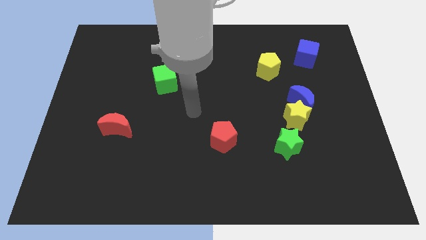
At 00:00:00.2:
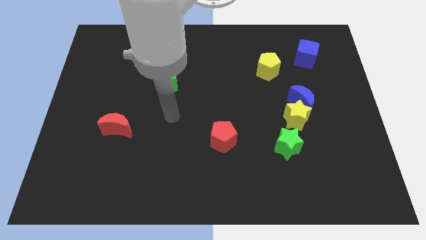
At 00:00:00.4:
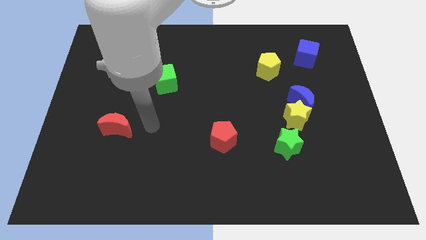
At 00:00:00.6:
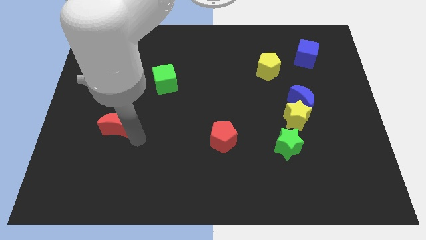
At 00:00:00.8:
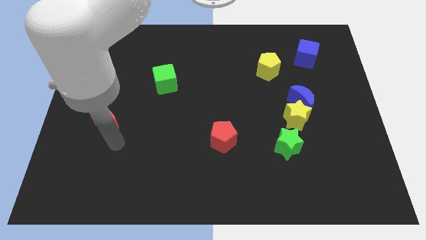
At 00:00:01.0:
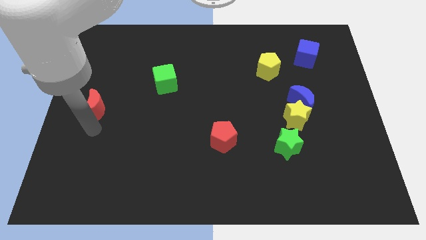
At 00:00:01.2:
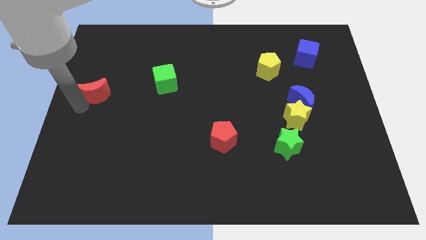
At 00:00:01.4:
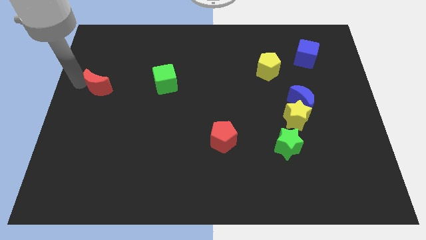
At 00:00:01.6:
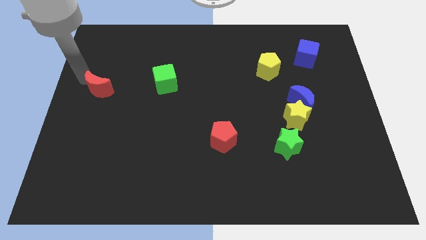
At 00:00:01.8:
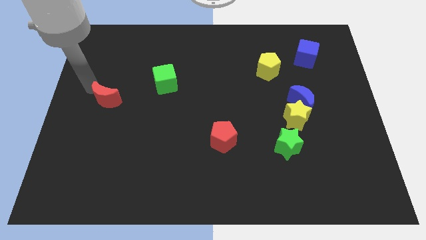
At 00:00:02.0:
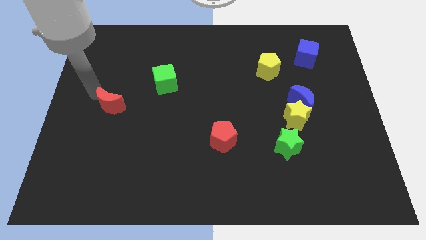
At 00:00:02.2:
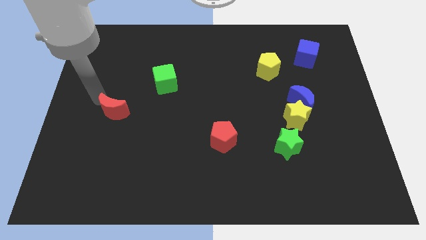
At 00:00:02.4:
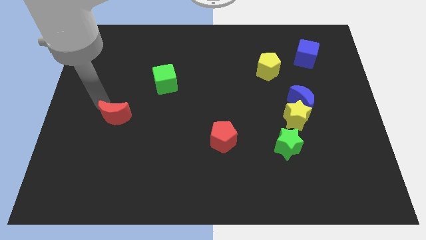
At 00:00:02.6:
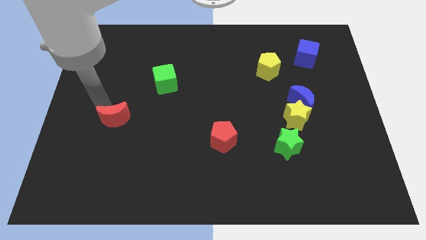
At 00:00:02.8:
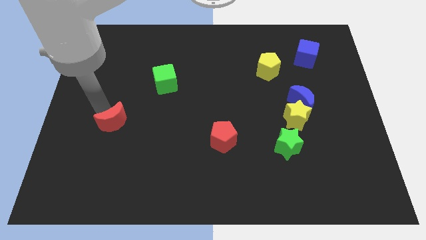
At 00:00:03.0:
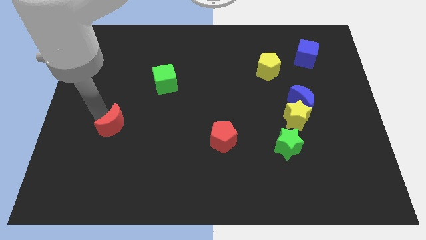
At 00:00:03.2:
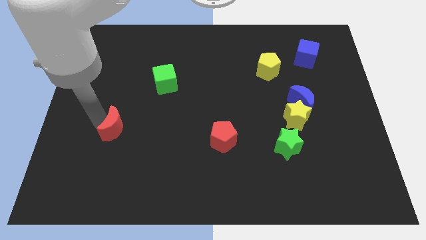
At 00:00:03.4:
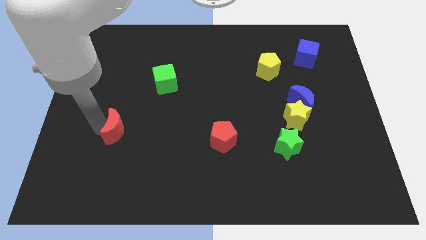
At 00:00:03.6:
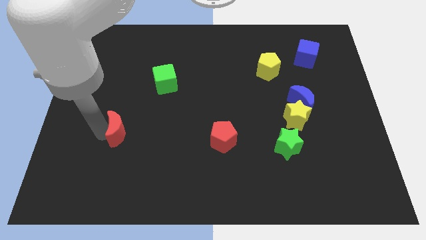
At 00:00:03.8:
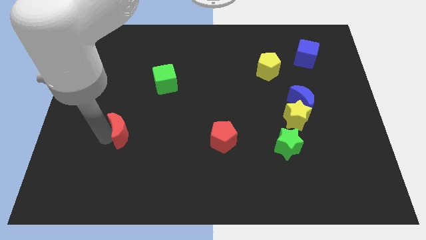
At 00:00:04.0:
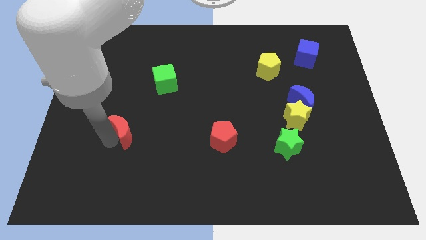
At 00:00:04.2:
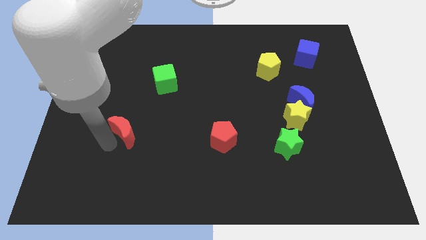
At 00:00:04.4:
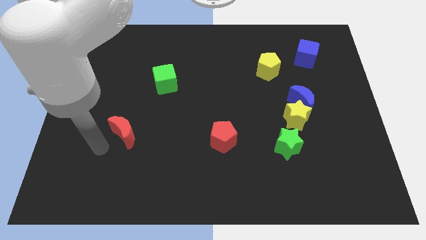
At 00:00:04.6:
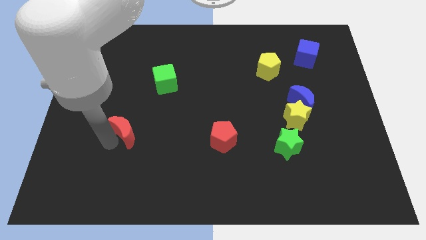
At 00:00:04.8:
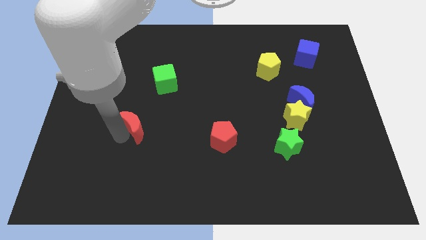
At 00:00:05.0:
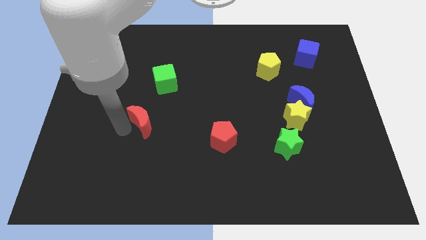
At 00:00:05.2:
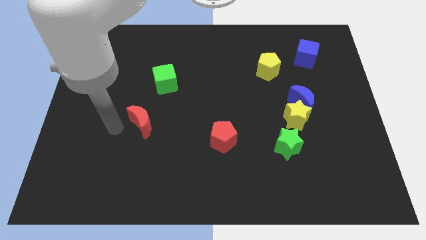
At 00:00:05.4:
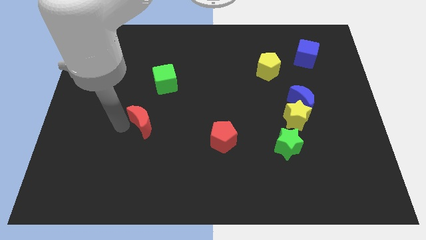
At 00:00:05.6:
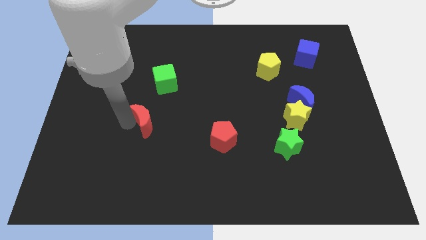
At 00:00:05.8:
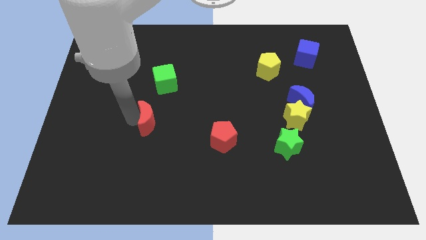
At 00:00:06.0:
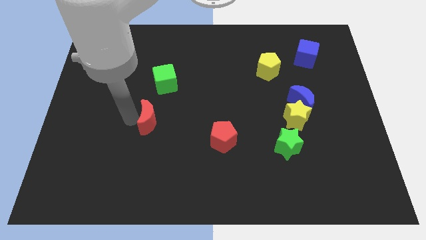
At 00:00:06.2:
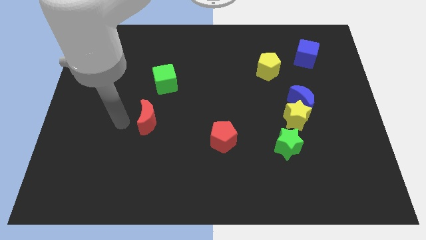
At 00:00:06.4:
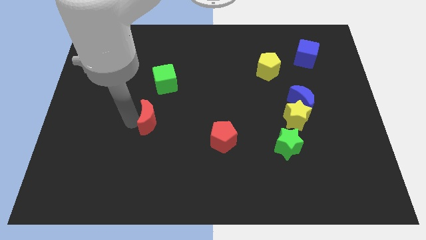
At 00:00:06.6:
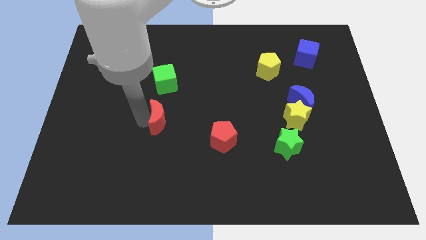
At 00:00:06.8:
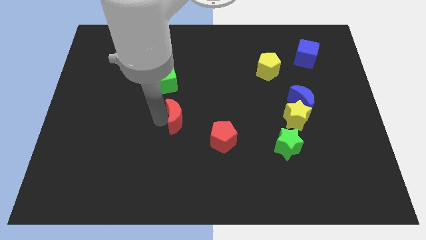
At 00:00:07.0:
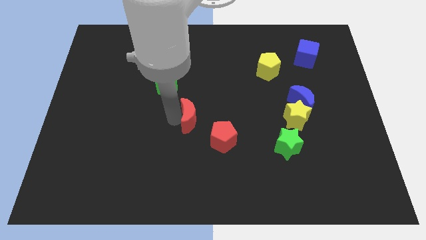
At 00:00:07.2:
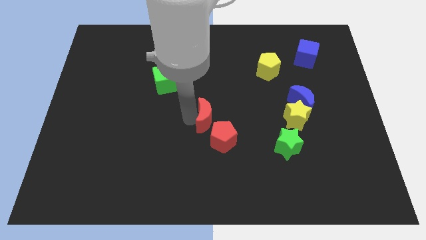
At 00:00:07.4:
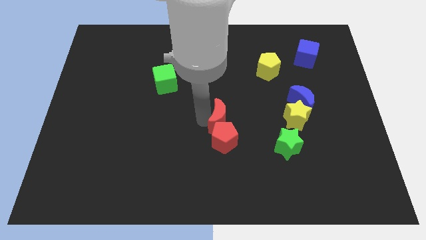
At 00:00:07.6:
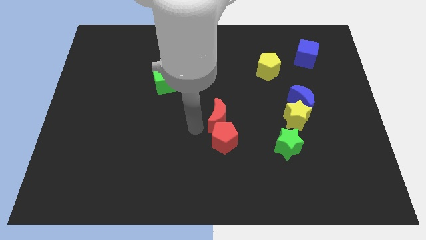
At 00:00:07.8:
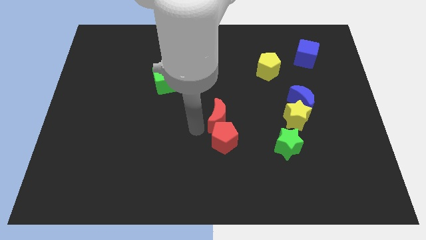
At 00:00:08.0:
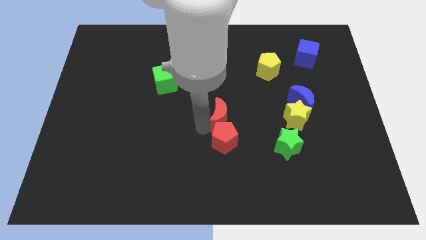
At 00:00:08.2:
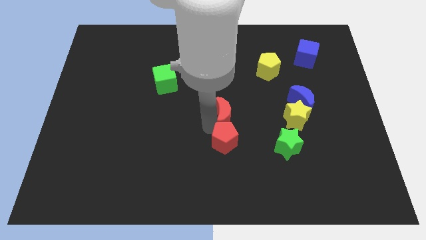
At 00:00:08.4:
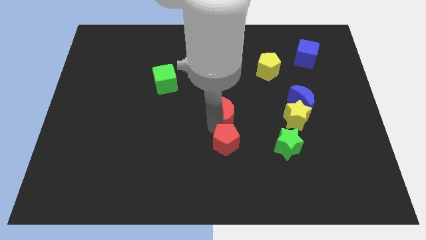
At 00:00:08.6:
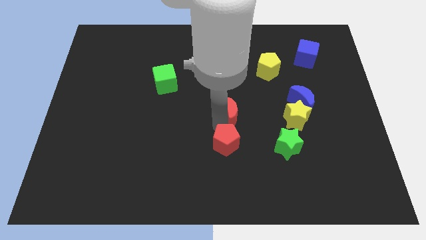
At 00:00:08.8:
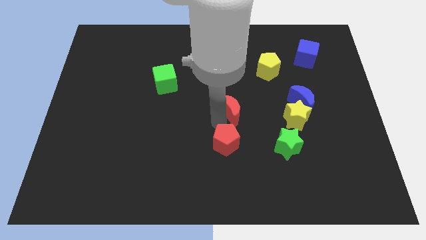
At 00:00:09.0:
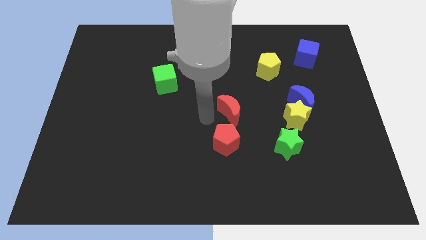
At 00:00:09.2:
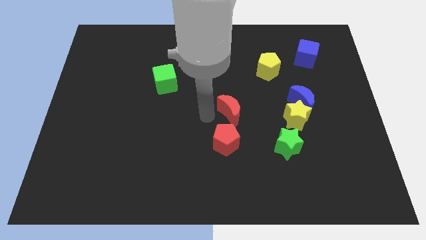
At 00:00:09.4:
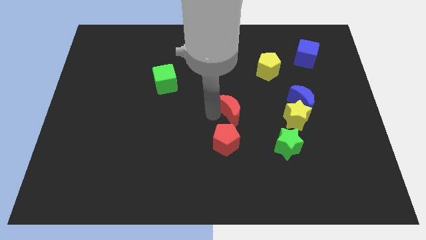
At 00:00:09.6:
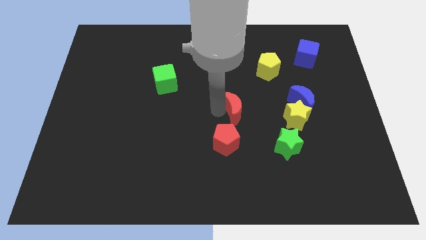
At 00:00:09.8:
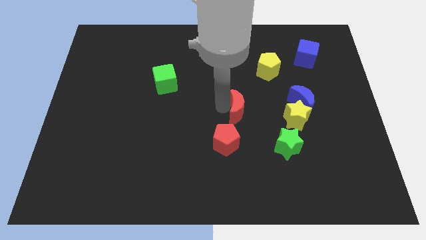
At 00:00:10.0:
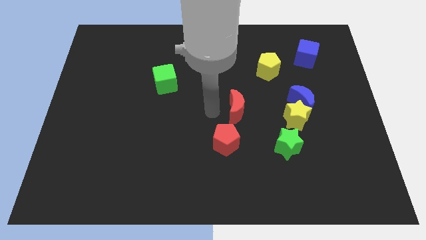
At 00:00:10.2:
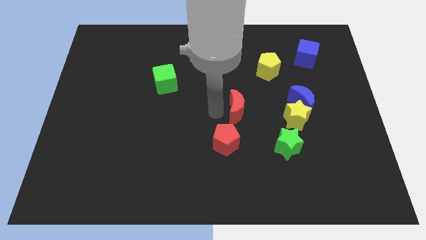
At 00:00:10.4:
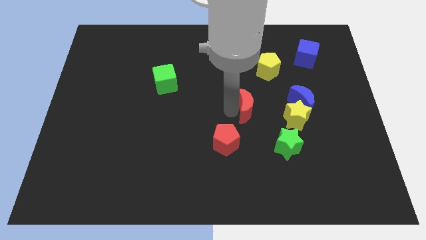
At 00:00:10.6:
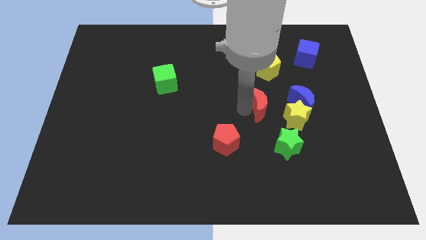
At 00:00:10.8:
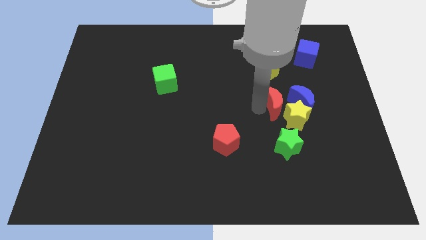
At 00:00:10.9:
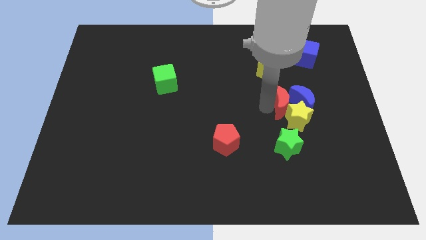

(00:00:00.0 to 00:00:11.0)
push the red moon to the blue moon

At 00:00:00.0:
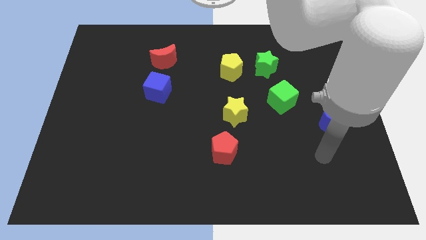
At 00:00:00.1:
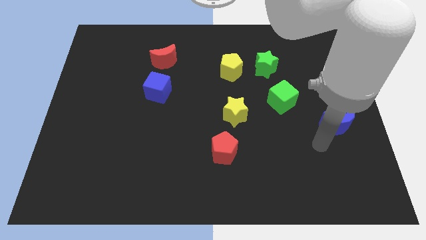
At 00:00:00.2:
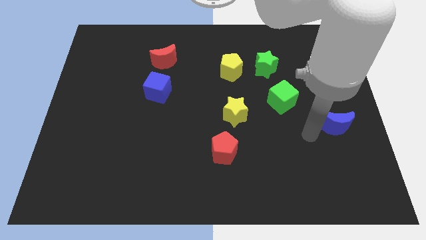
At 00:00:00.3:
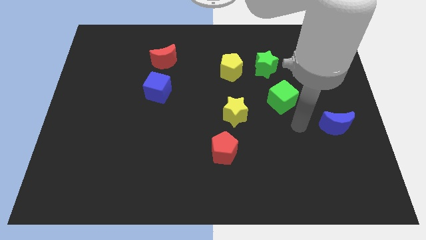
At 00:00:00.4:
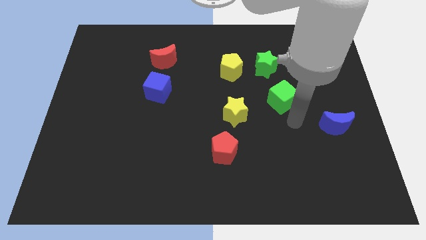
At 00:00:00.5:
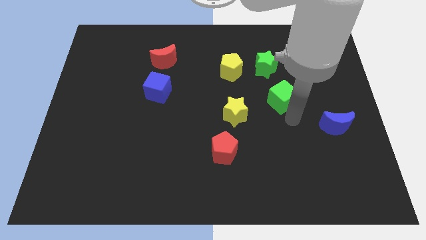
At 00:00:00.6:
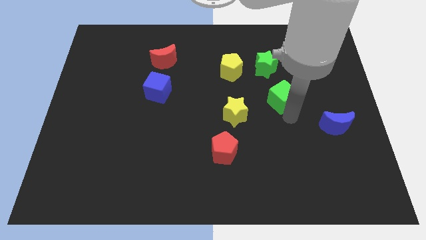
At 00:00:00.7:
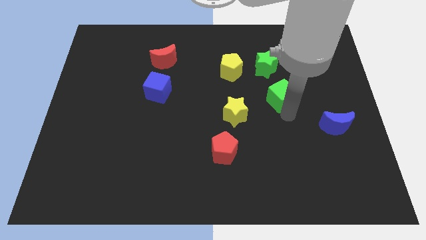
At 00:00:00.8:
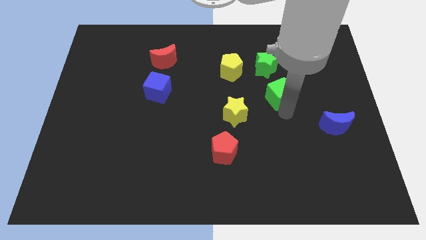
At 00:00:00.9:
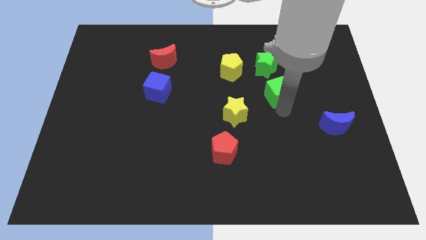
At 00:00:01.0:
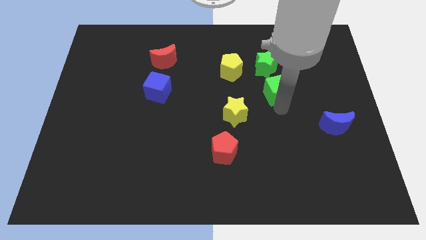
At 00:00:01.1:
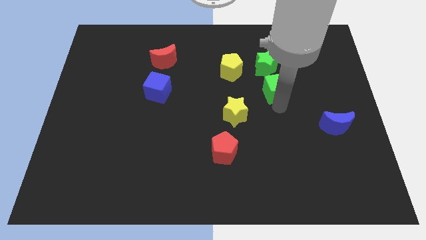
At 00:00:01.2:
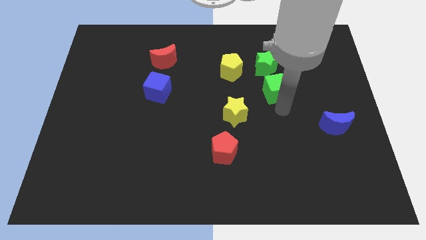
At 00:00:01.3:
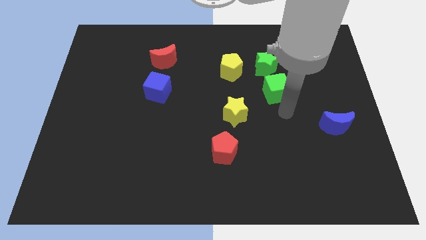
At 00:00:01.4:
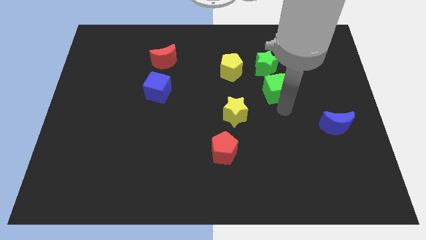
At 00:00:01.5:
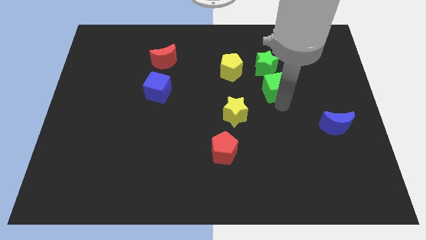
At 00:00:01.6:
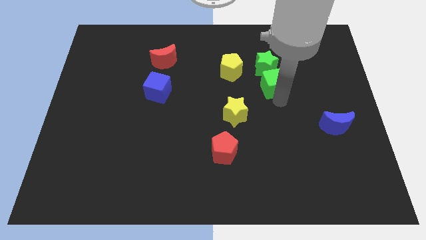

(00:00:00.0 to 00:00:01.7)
move the green cube towards the green star
